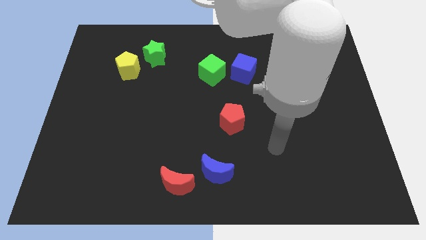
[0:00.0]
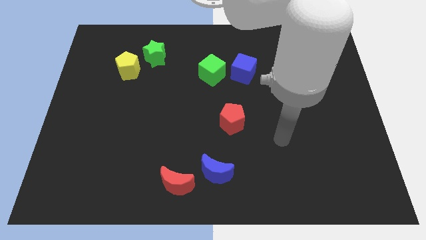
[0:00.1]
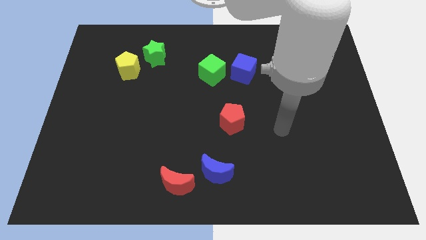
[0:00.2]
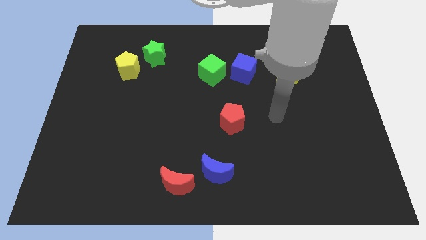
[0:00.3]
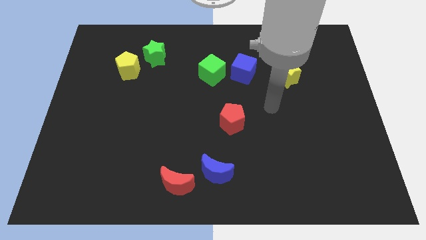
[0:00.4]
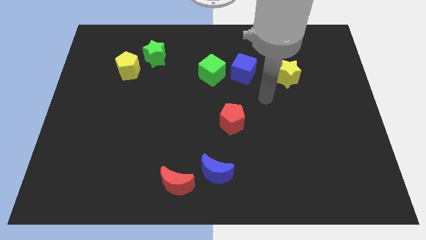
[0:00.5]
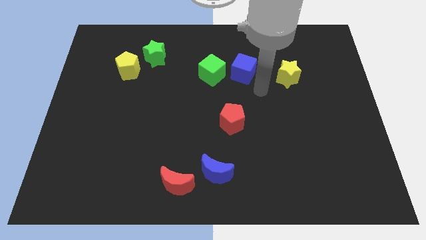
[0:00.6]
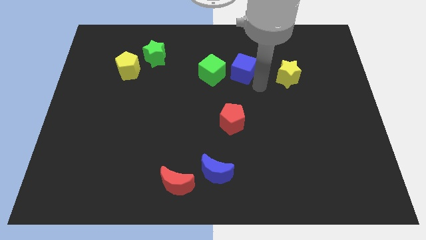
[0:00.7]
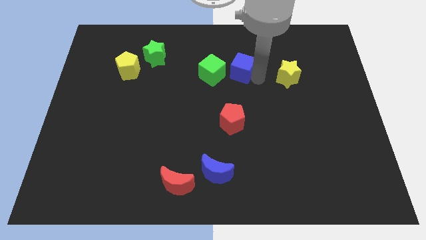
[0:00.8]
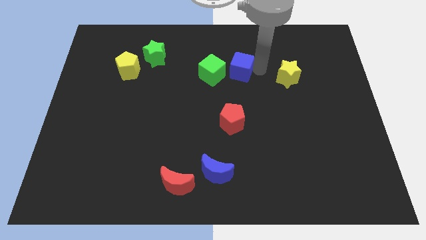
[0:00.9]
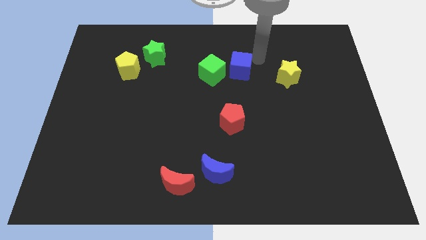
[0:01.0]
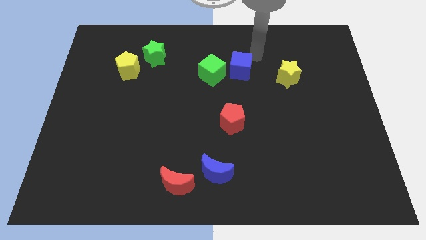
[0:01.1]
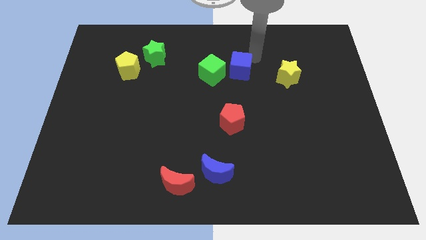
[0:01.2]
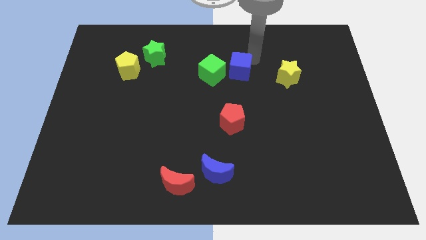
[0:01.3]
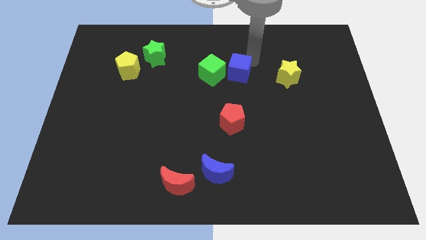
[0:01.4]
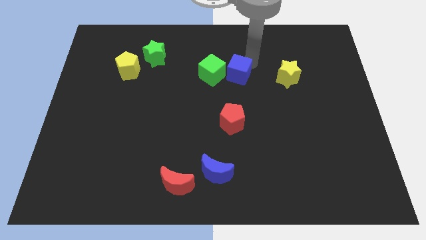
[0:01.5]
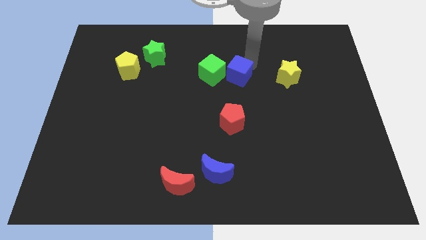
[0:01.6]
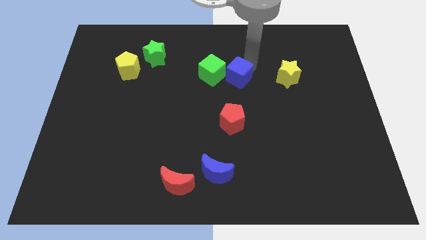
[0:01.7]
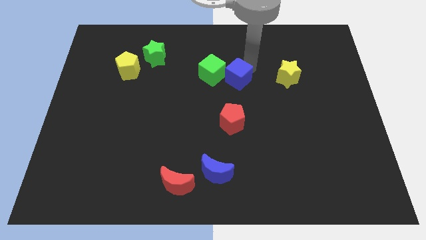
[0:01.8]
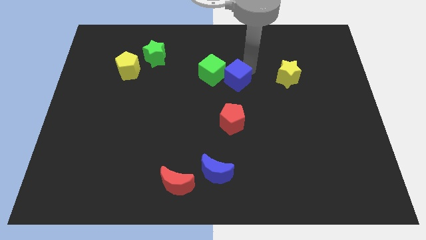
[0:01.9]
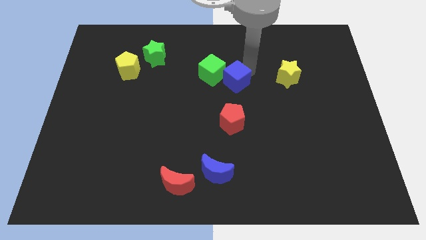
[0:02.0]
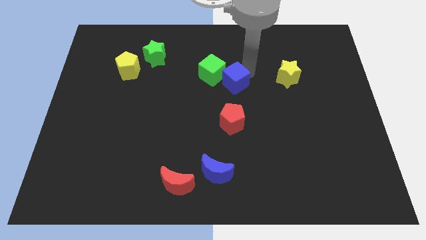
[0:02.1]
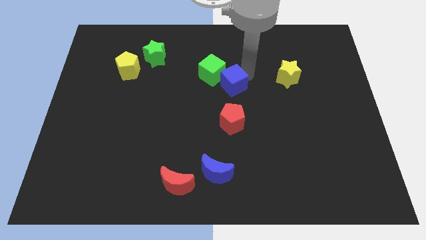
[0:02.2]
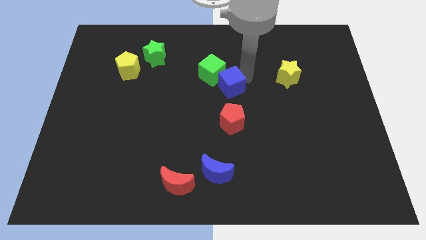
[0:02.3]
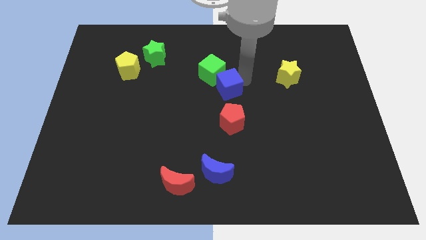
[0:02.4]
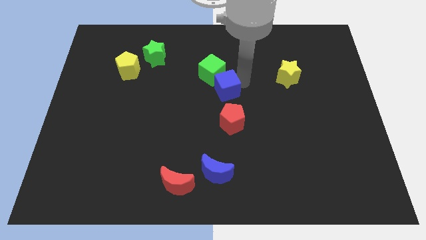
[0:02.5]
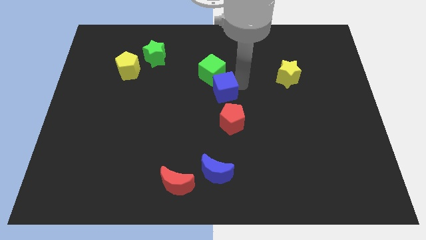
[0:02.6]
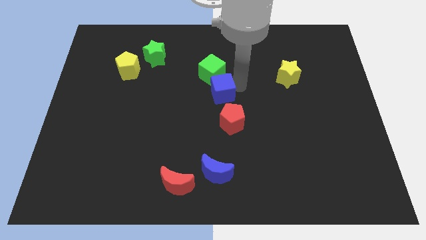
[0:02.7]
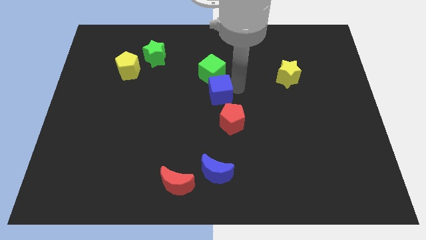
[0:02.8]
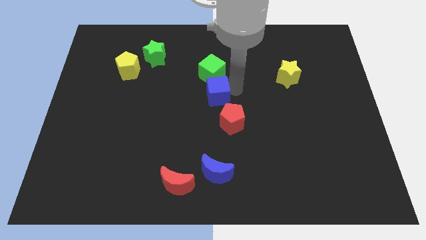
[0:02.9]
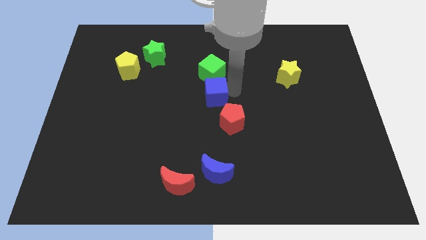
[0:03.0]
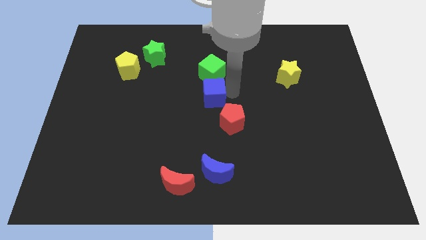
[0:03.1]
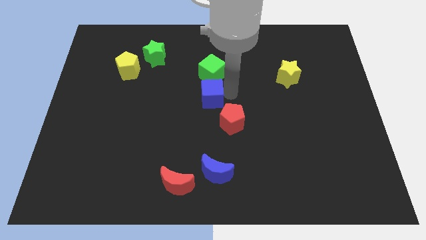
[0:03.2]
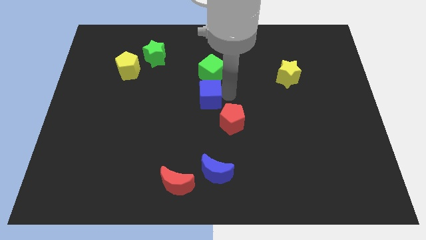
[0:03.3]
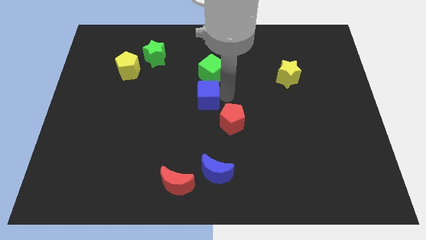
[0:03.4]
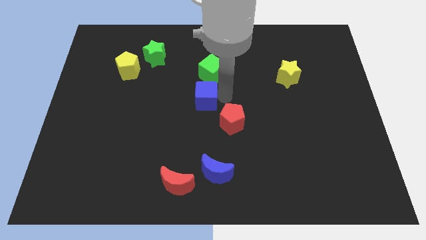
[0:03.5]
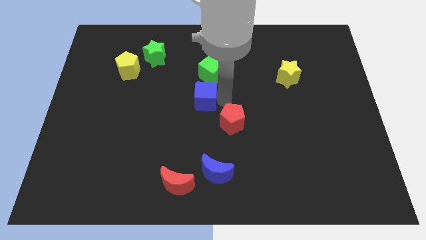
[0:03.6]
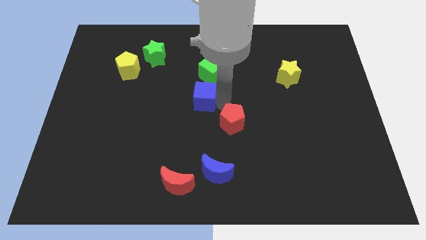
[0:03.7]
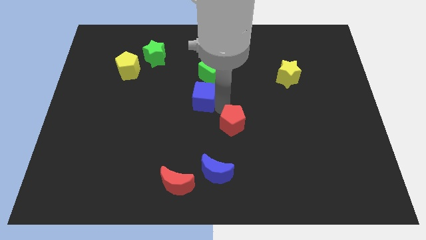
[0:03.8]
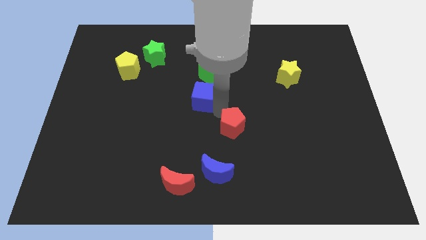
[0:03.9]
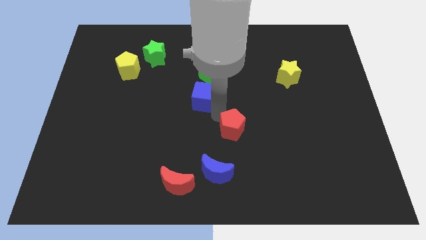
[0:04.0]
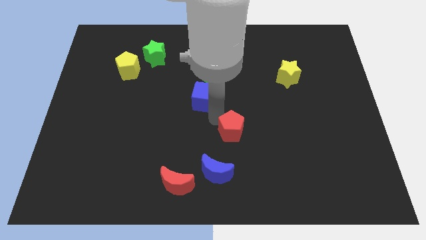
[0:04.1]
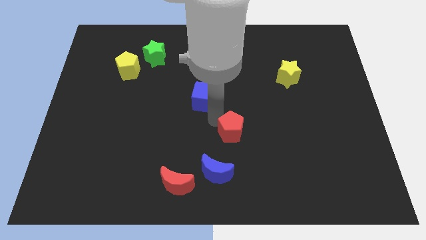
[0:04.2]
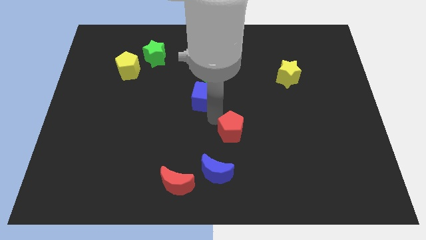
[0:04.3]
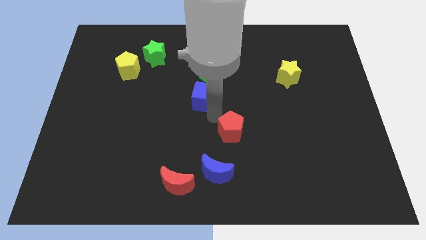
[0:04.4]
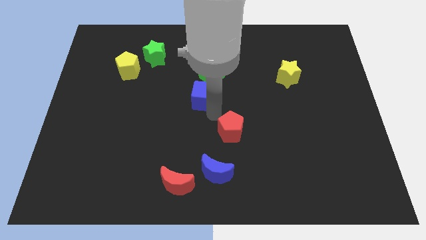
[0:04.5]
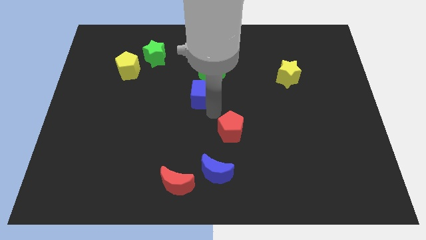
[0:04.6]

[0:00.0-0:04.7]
push the blue cube to the left a little

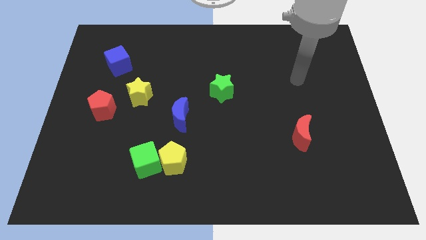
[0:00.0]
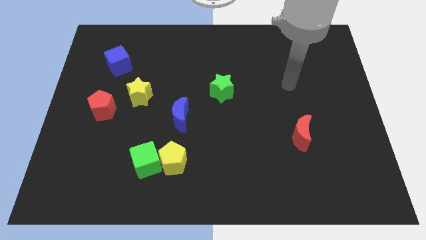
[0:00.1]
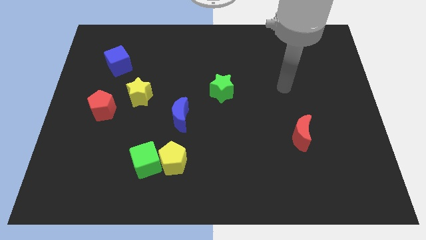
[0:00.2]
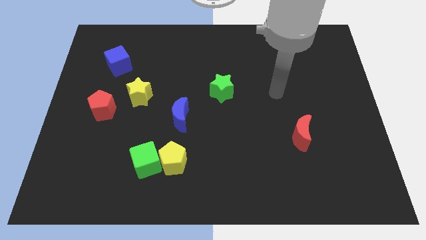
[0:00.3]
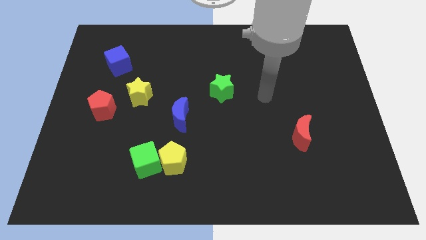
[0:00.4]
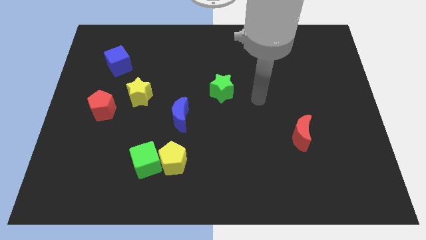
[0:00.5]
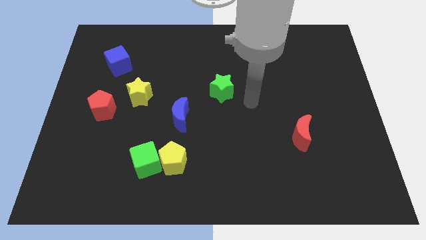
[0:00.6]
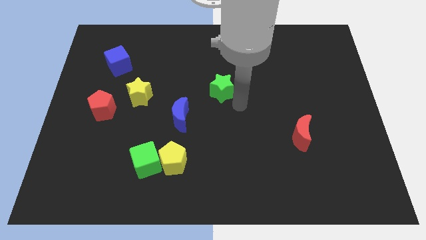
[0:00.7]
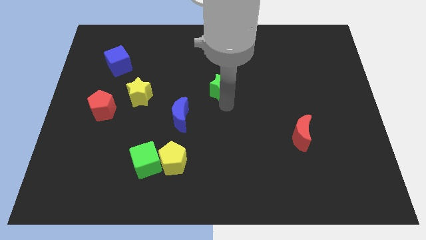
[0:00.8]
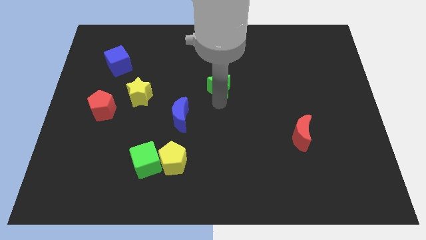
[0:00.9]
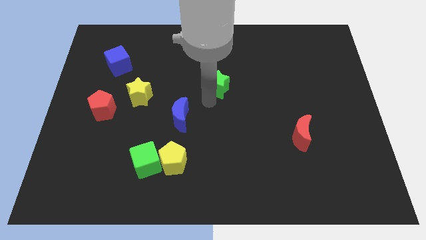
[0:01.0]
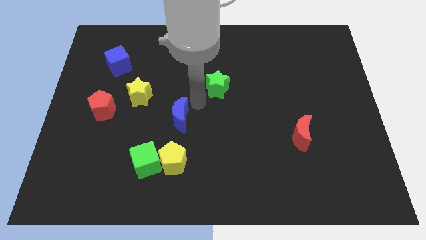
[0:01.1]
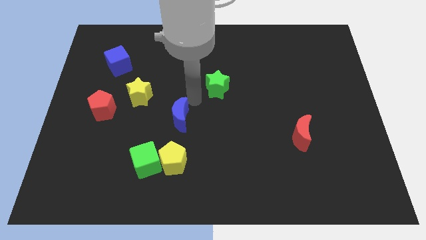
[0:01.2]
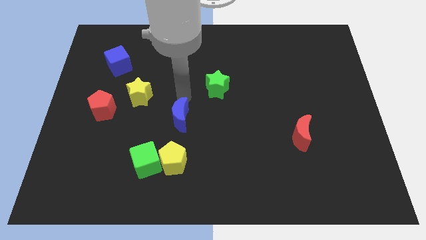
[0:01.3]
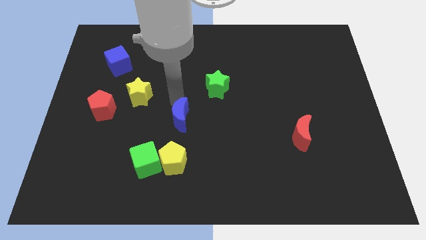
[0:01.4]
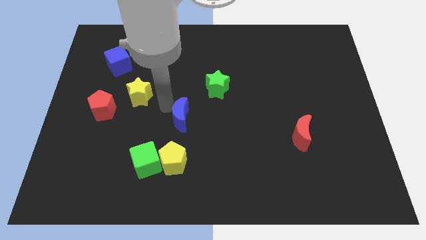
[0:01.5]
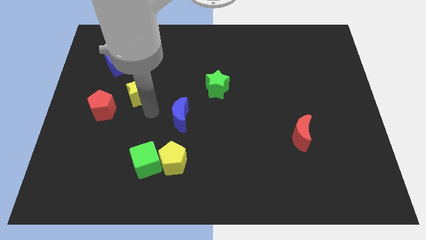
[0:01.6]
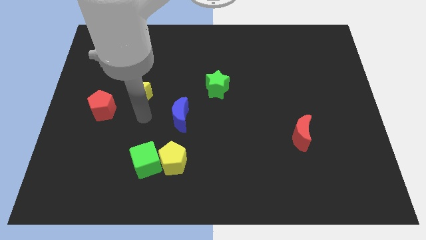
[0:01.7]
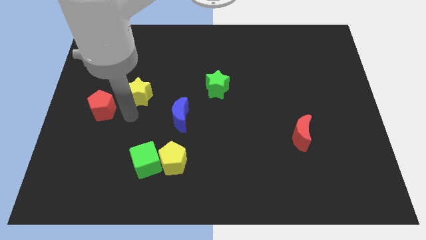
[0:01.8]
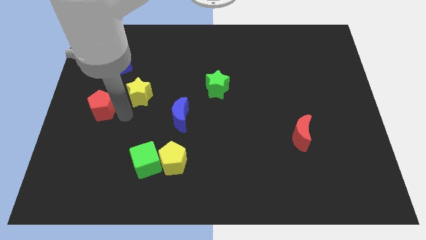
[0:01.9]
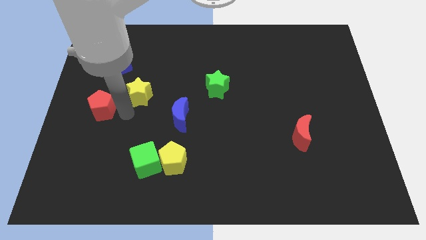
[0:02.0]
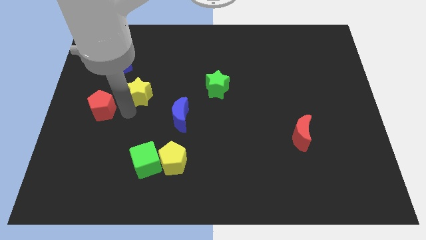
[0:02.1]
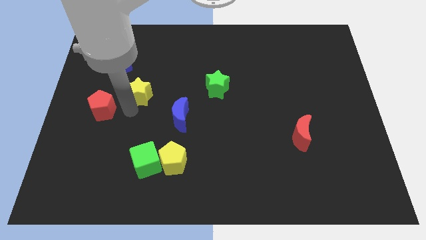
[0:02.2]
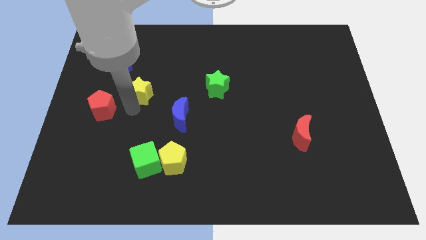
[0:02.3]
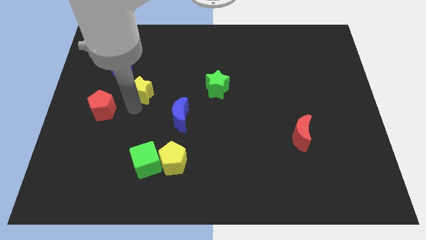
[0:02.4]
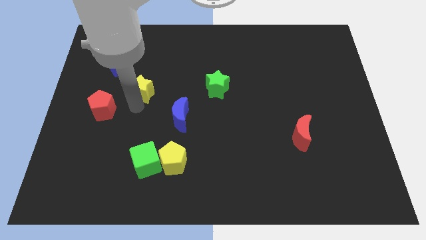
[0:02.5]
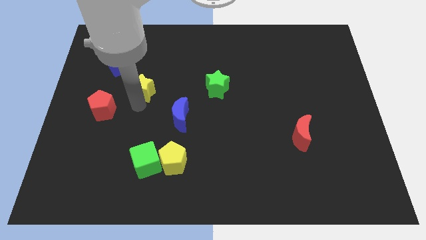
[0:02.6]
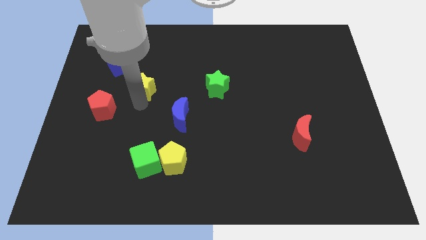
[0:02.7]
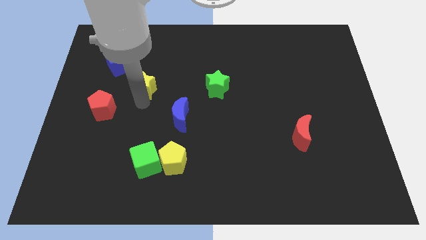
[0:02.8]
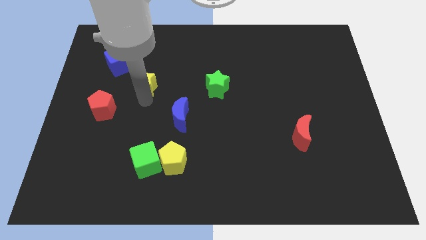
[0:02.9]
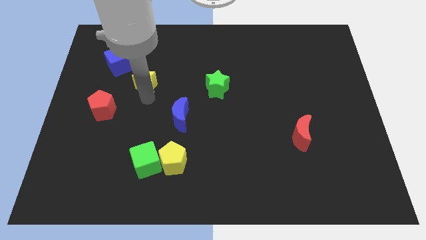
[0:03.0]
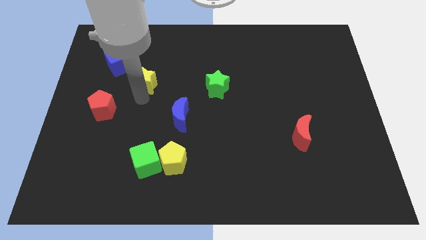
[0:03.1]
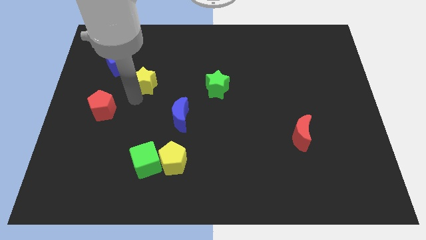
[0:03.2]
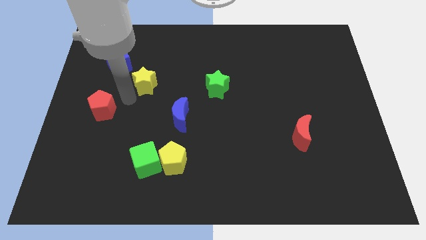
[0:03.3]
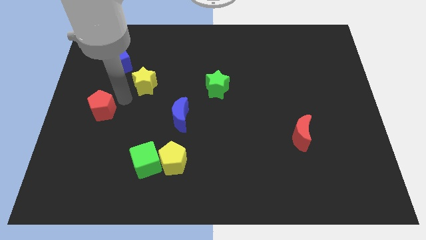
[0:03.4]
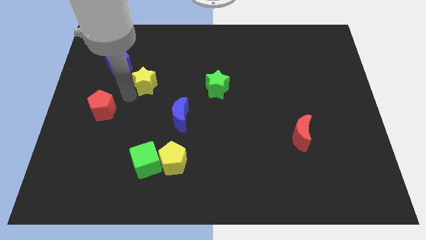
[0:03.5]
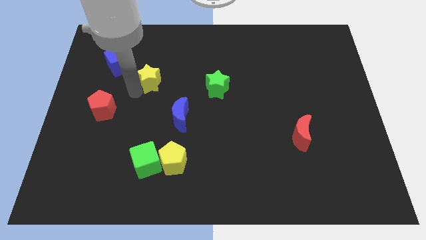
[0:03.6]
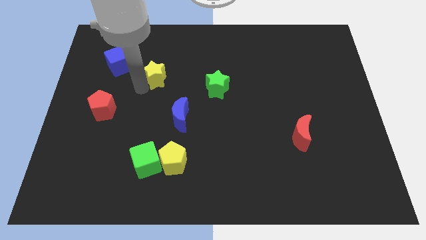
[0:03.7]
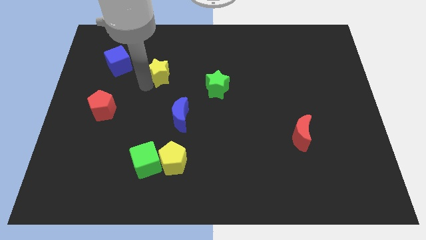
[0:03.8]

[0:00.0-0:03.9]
move the yellow star a little upwards and to the right
